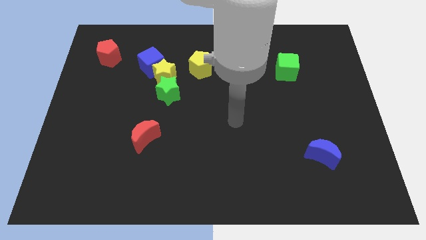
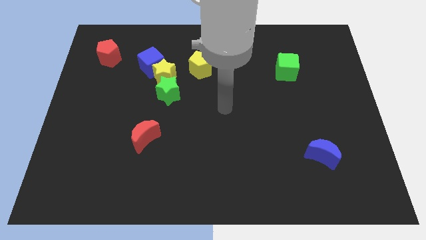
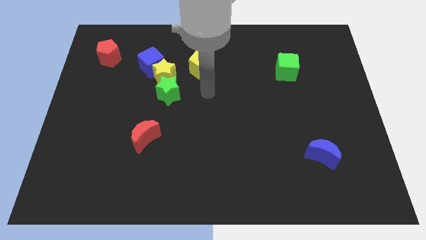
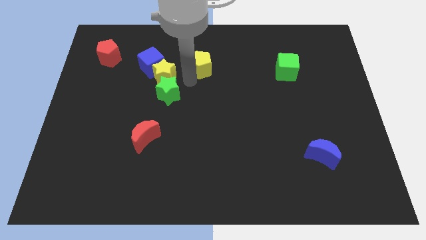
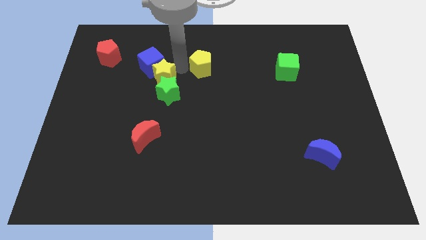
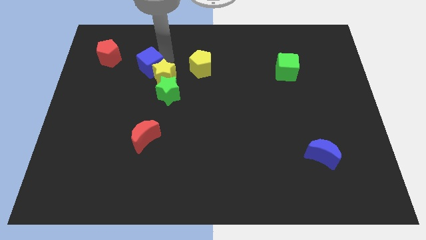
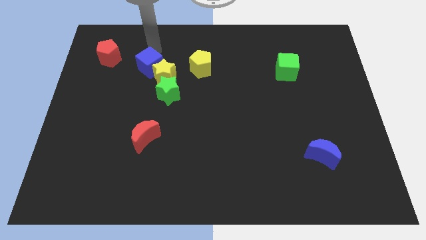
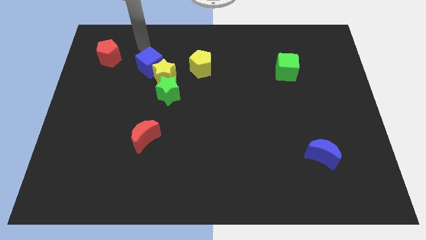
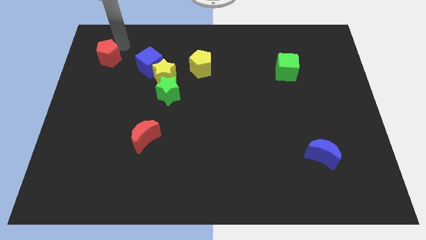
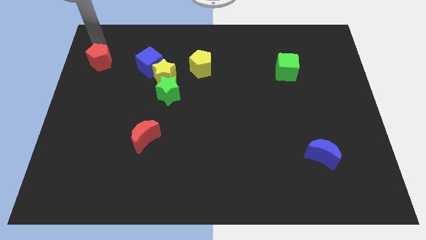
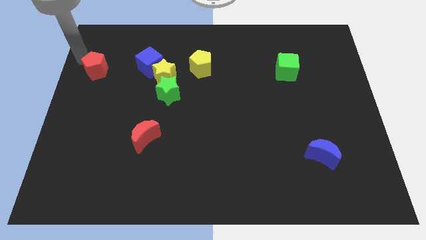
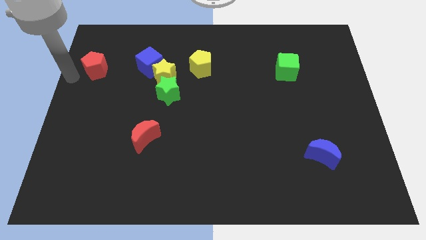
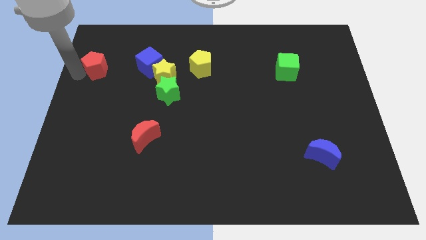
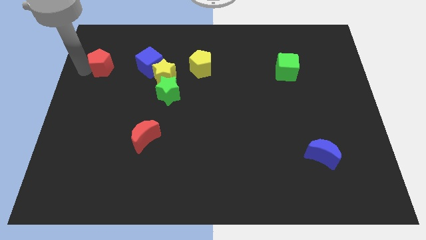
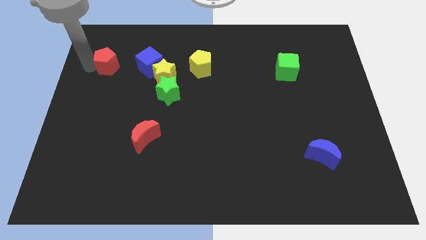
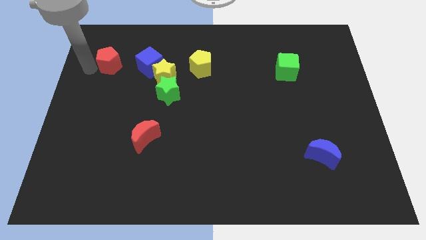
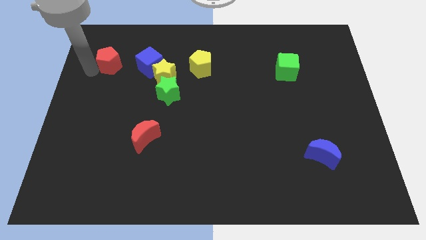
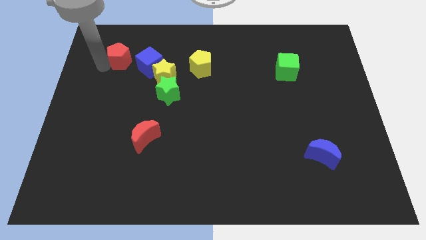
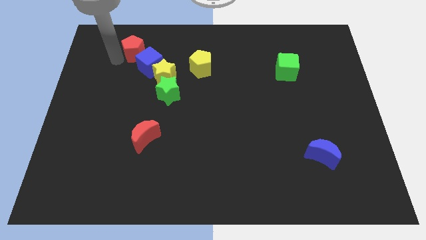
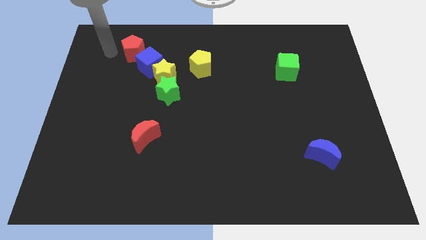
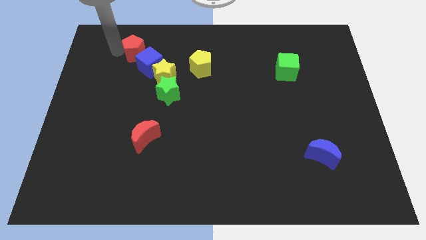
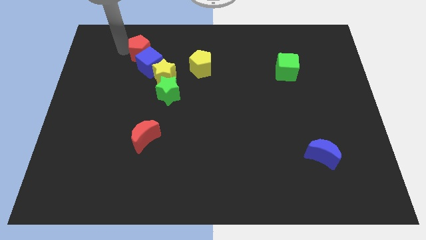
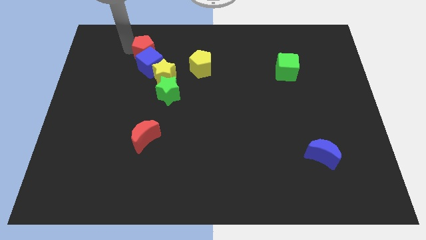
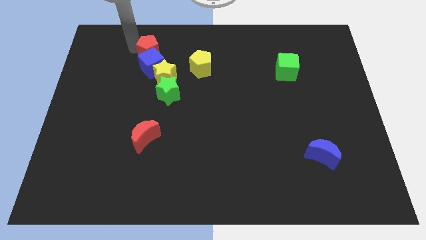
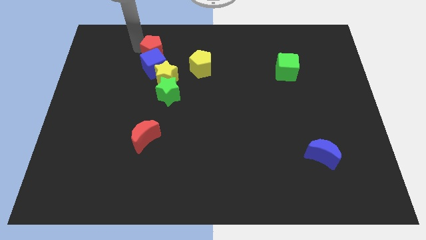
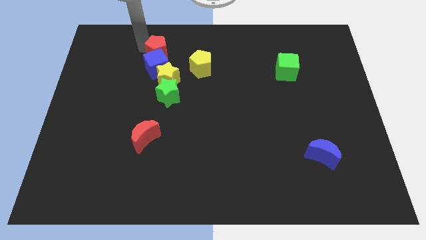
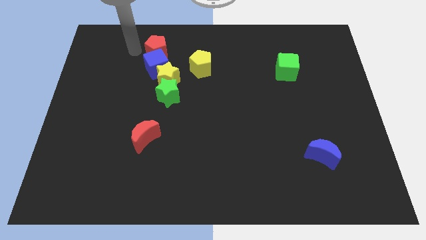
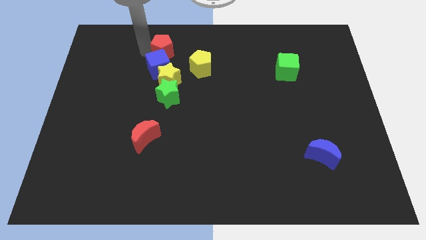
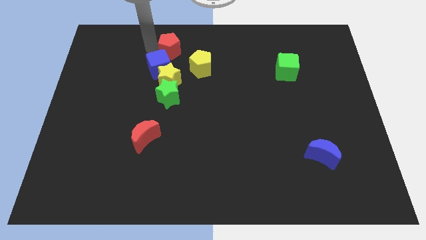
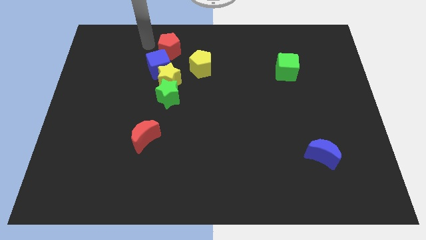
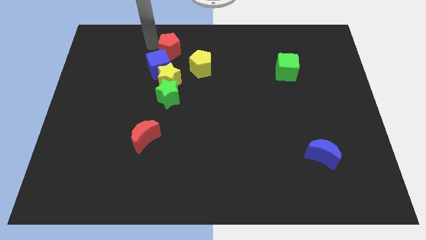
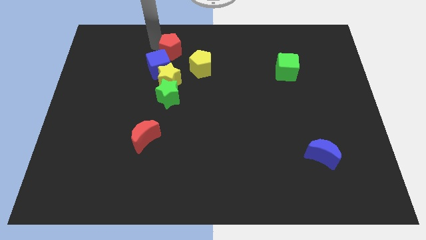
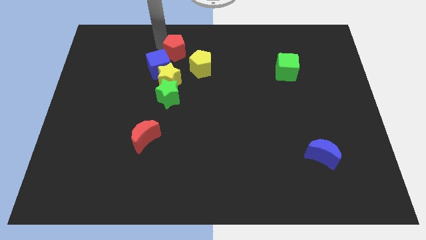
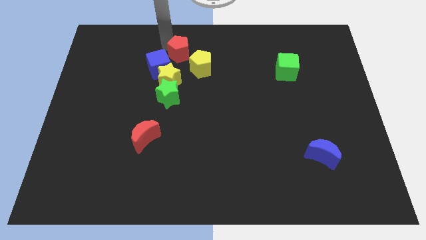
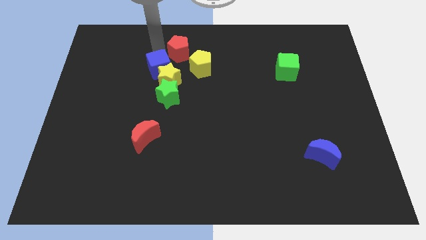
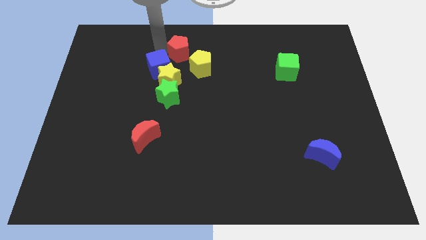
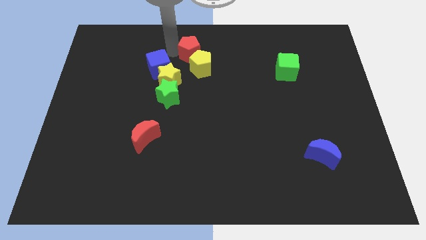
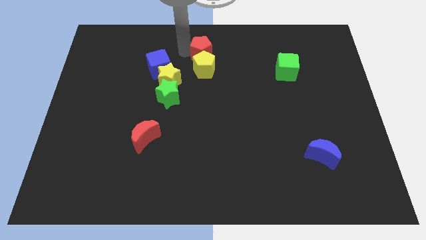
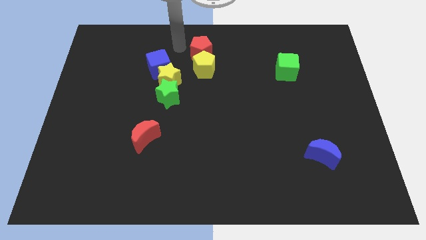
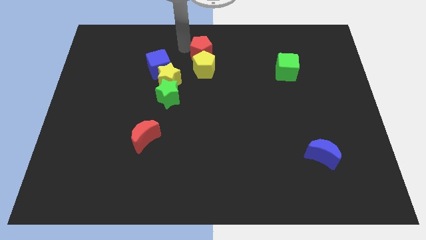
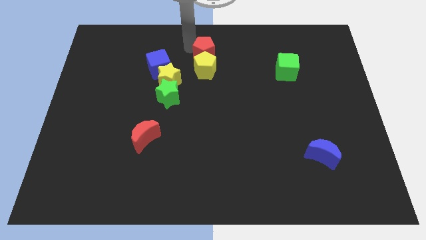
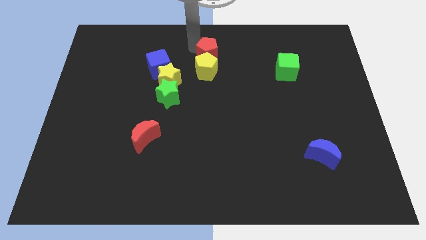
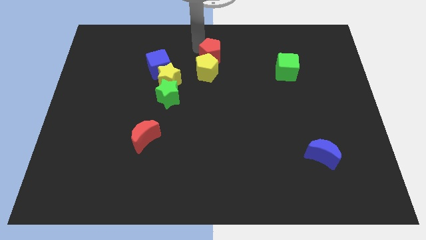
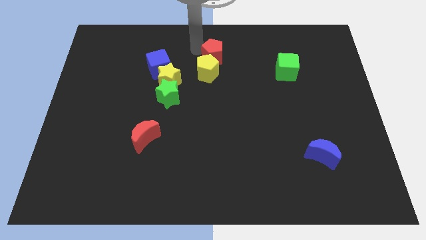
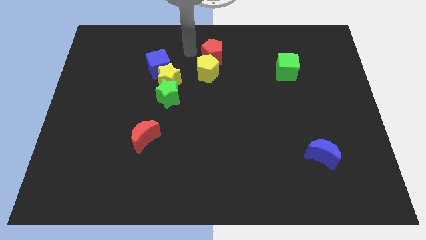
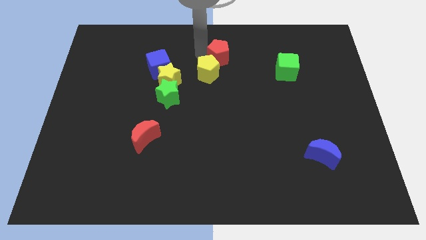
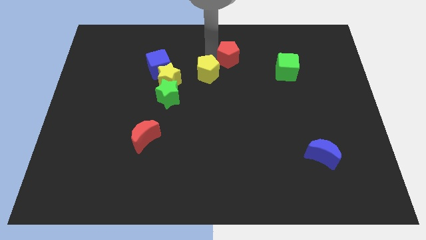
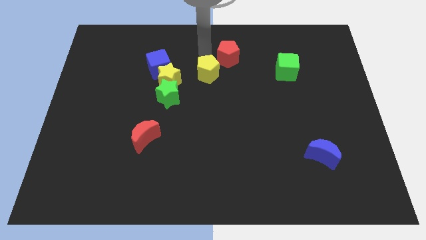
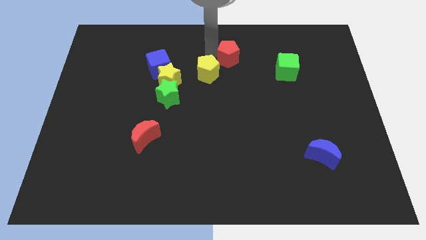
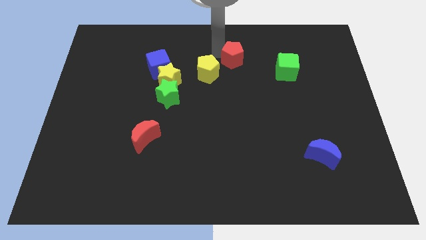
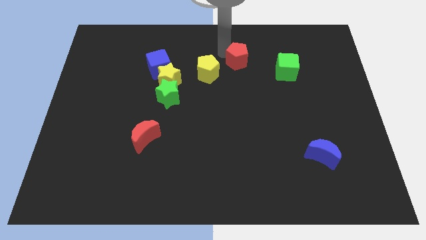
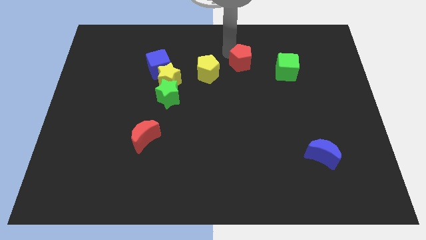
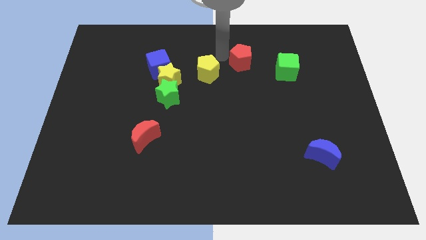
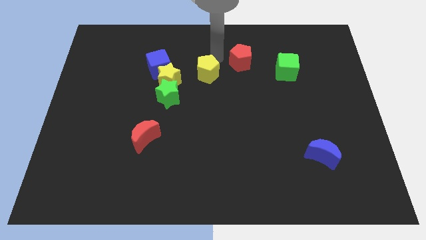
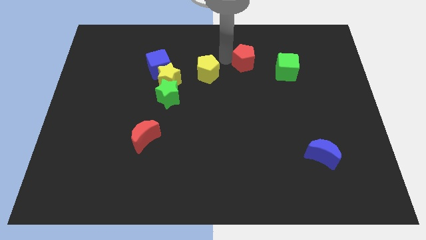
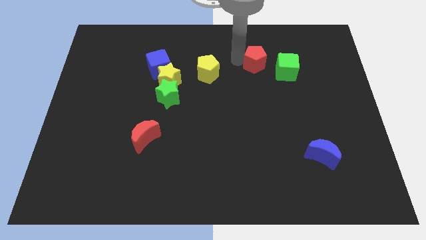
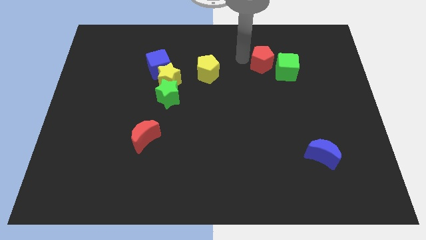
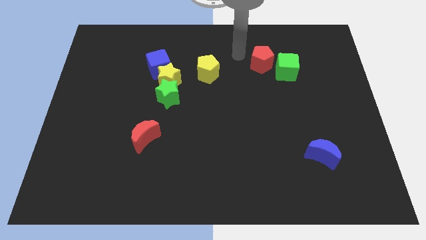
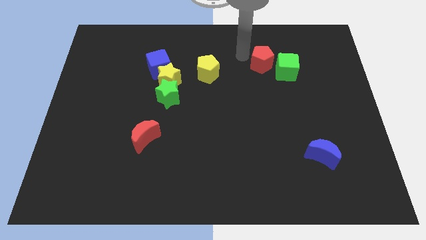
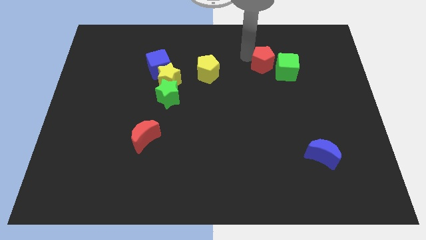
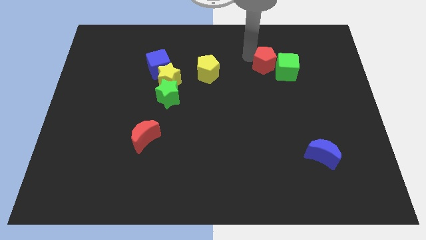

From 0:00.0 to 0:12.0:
slide the red pentagon close to the green cube

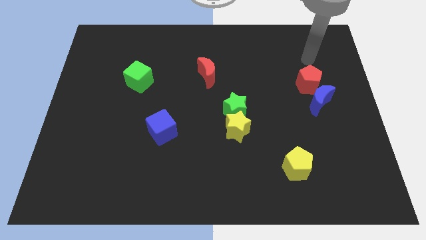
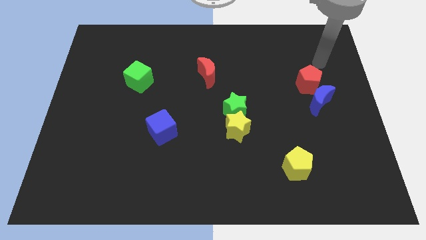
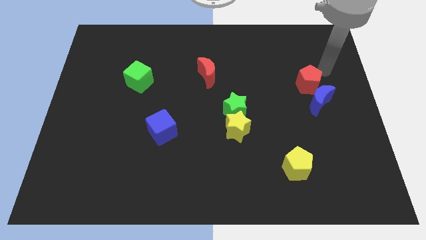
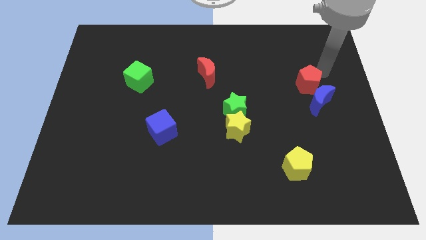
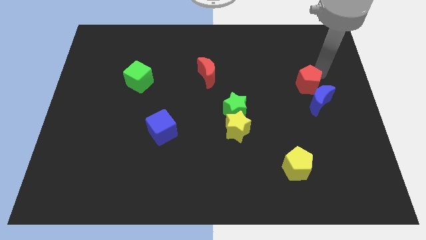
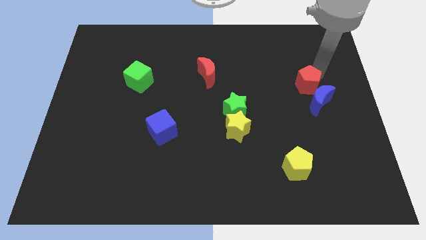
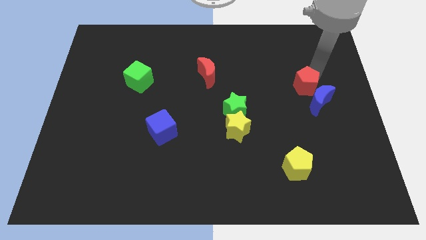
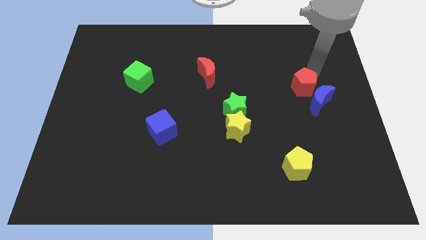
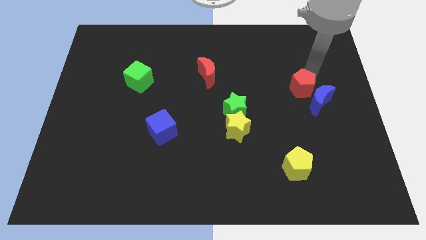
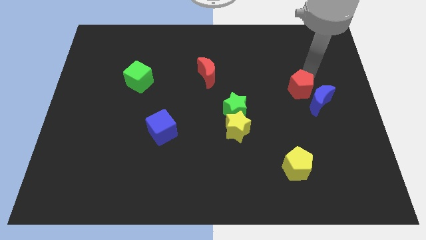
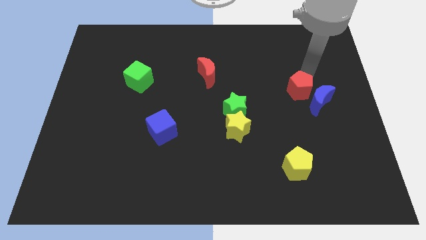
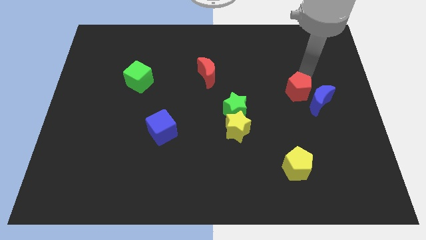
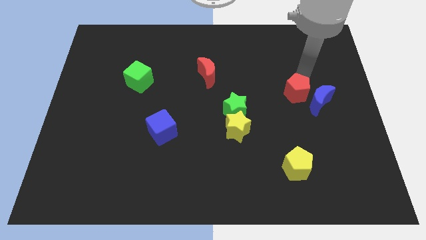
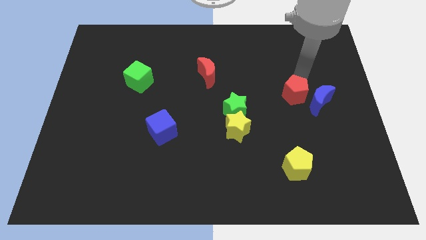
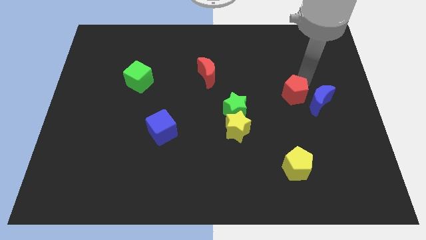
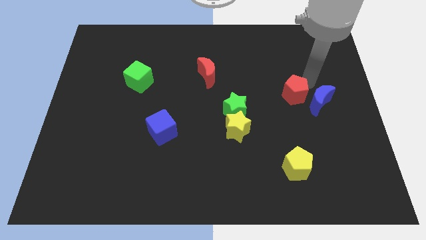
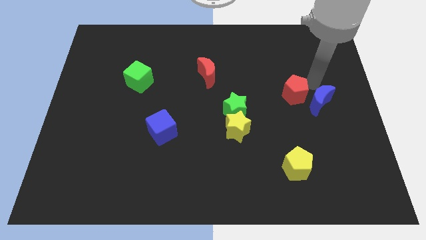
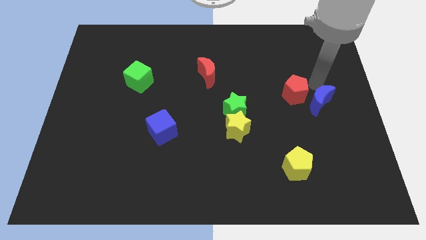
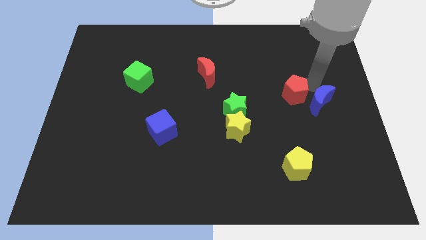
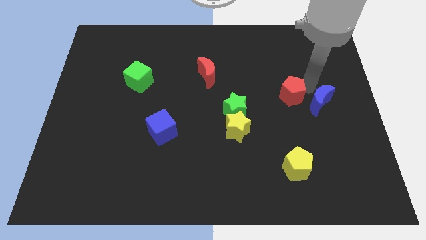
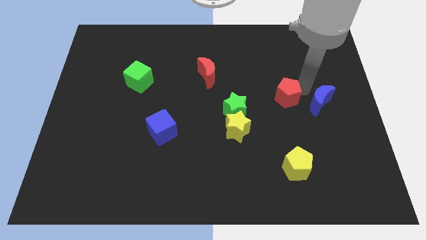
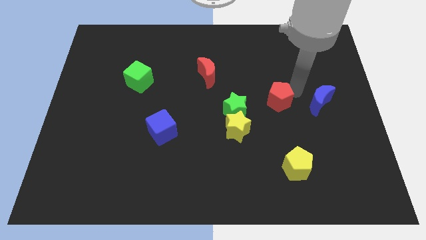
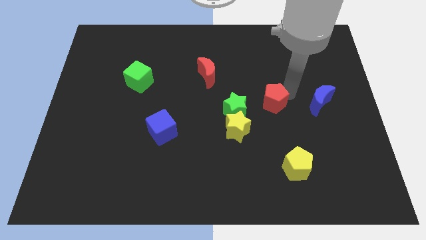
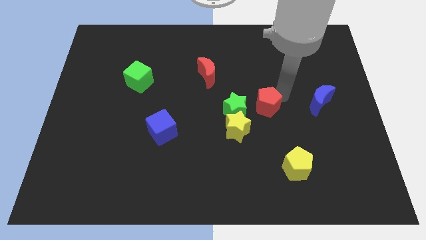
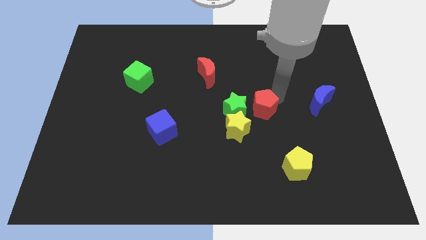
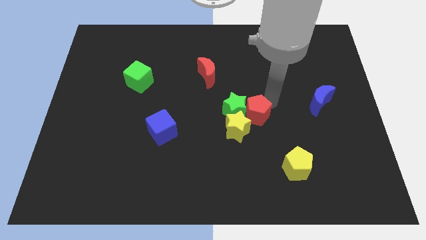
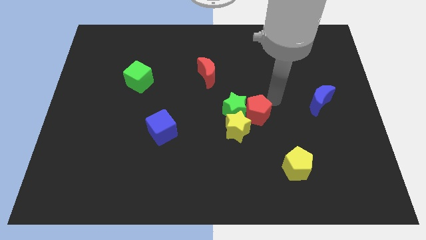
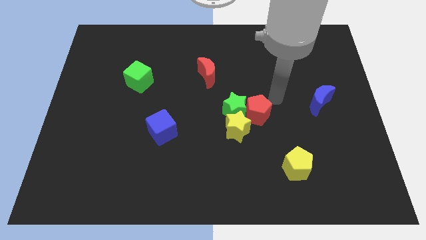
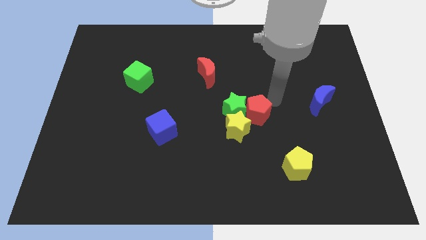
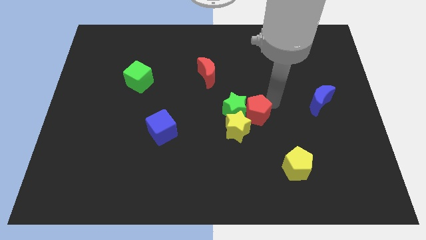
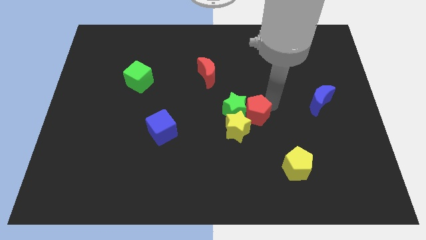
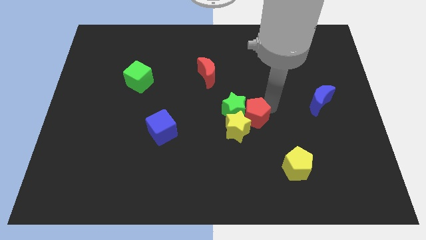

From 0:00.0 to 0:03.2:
put the red pentagon to the yellow star
